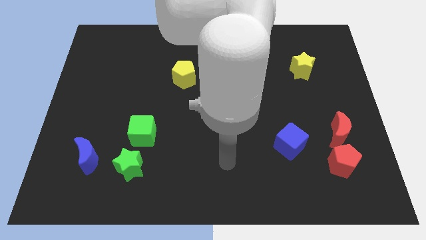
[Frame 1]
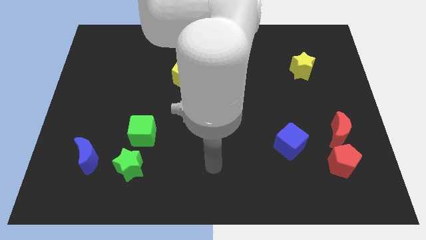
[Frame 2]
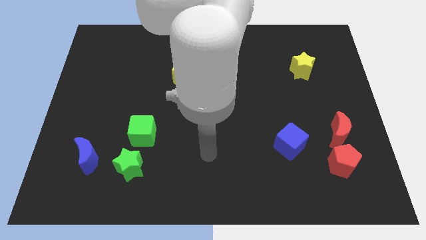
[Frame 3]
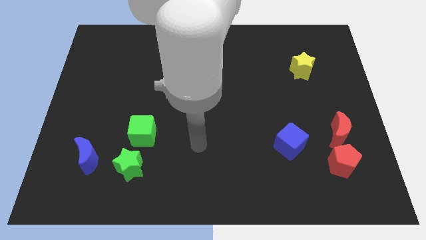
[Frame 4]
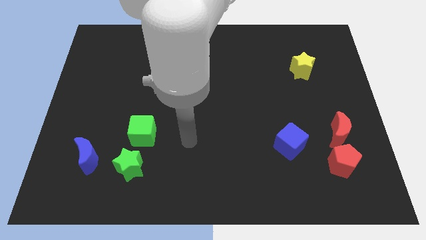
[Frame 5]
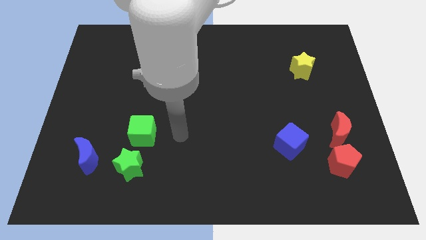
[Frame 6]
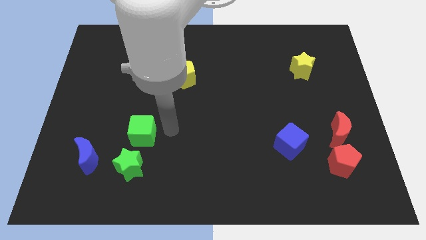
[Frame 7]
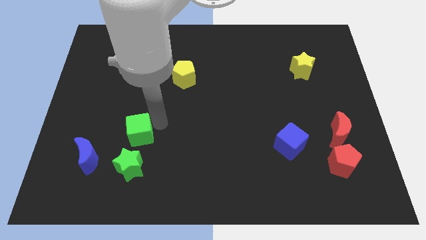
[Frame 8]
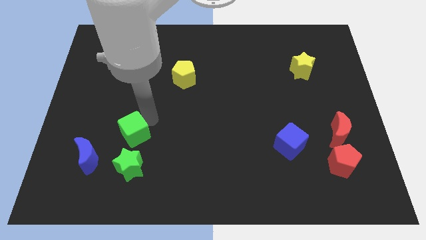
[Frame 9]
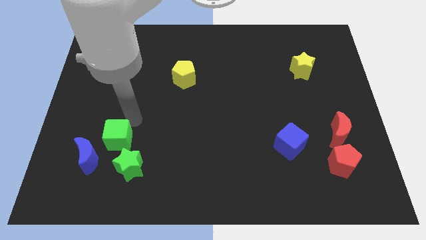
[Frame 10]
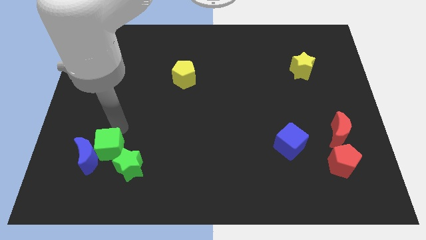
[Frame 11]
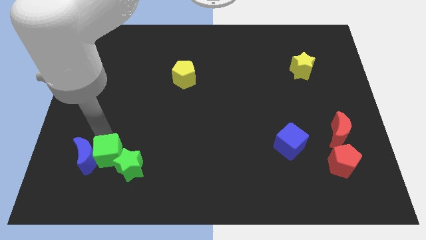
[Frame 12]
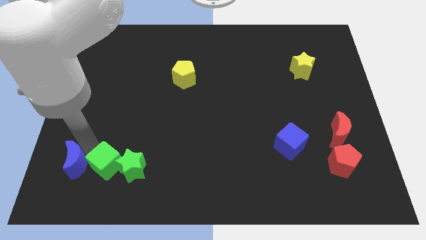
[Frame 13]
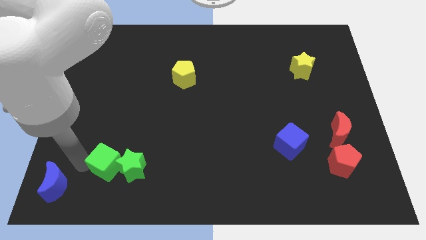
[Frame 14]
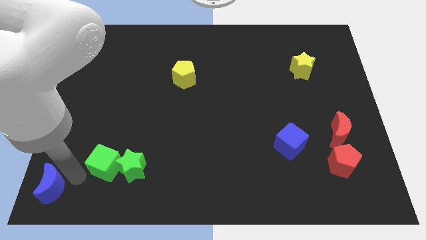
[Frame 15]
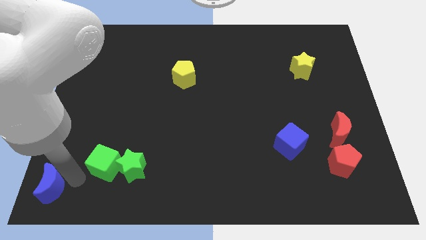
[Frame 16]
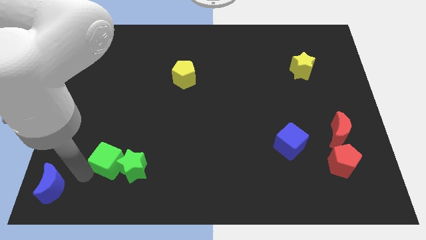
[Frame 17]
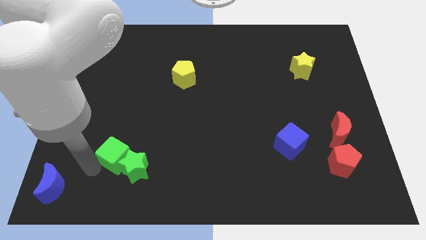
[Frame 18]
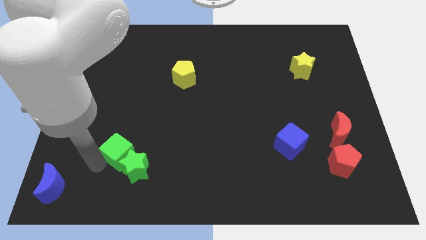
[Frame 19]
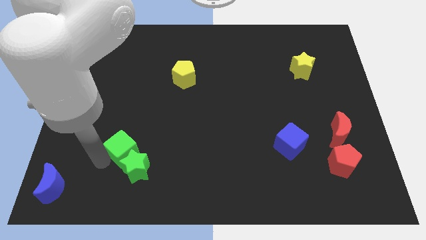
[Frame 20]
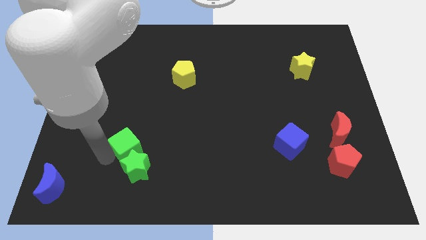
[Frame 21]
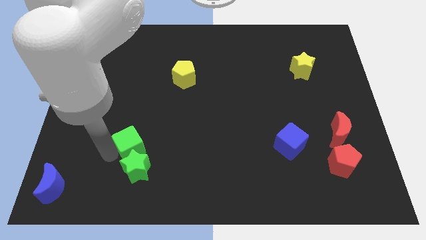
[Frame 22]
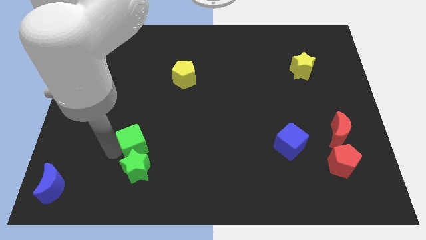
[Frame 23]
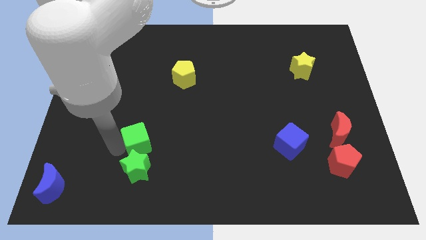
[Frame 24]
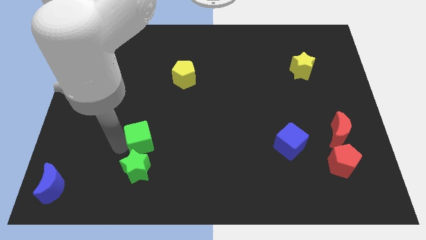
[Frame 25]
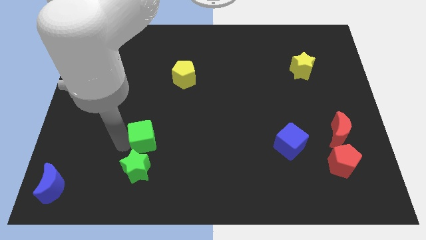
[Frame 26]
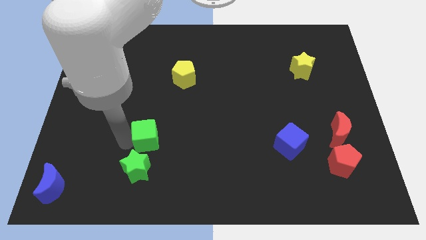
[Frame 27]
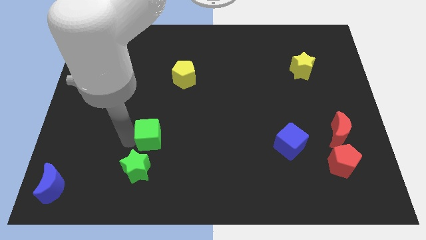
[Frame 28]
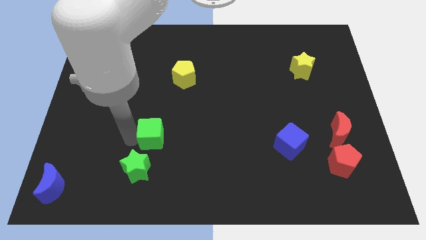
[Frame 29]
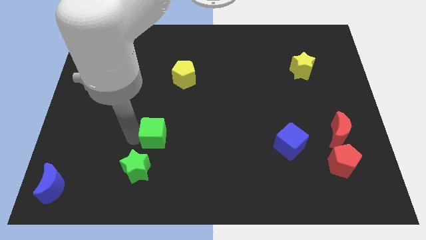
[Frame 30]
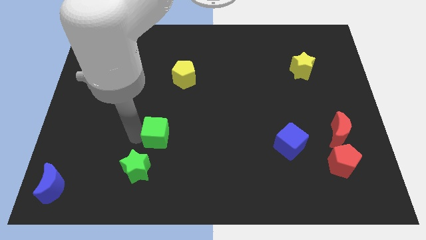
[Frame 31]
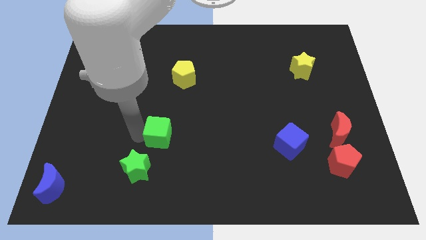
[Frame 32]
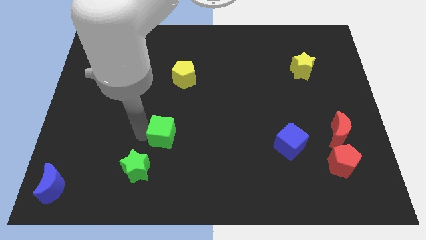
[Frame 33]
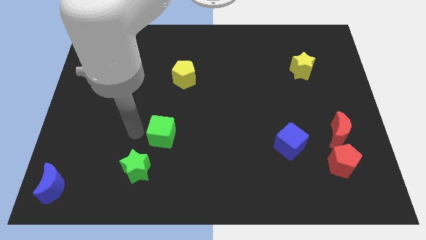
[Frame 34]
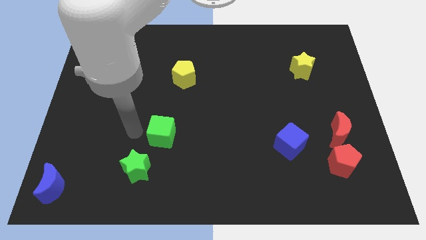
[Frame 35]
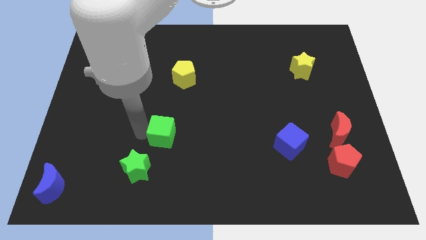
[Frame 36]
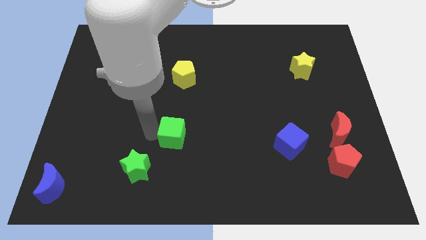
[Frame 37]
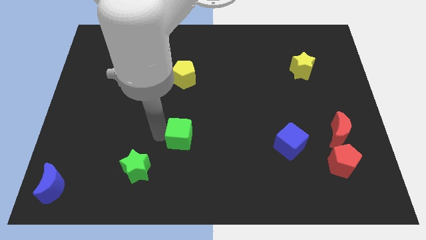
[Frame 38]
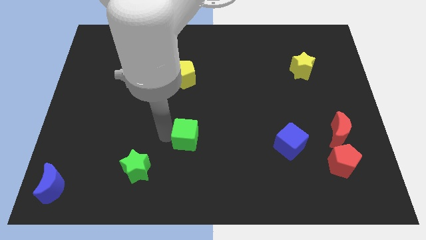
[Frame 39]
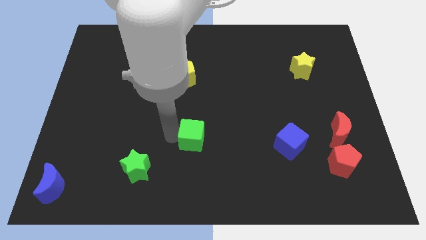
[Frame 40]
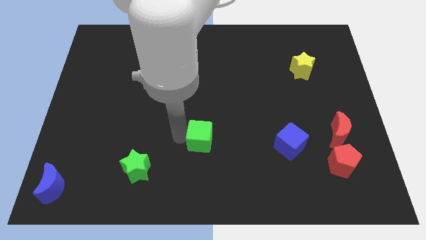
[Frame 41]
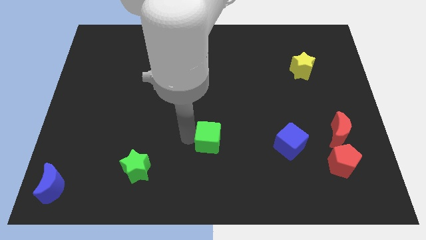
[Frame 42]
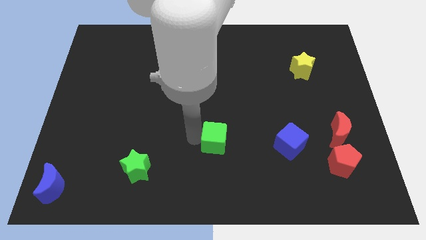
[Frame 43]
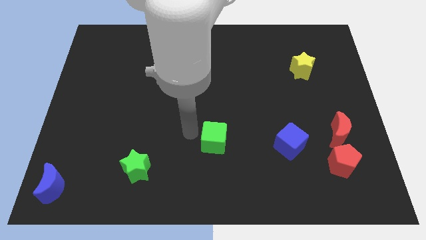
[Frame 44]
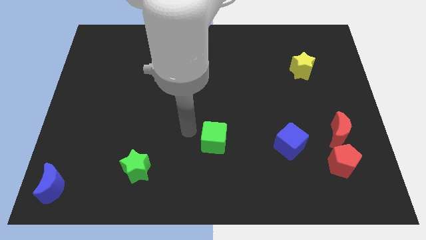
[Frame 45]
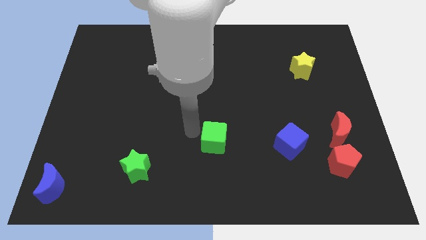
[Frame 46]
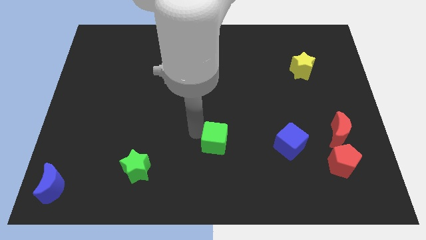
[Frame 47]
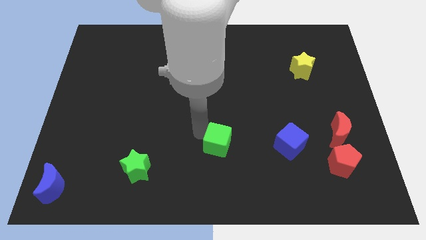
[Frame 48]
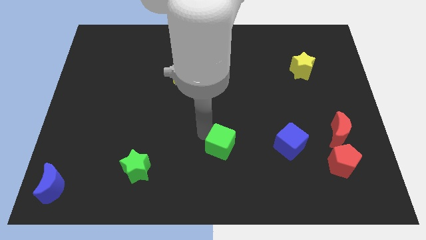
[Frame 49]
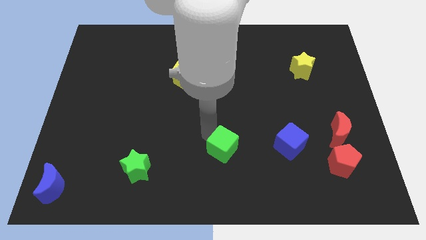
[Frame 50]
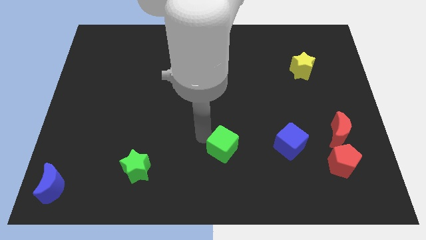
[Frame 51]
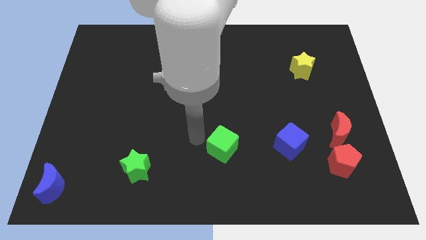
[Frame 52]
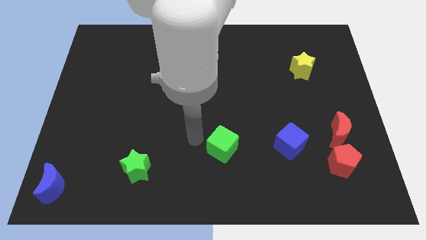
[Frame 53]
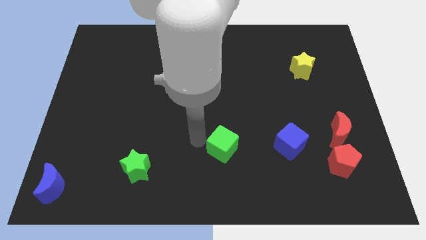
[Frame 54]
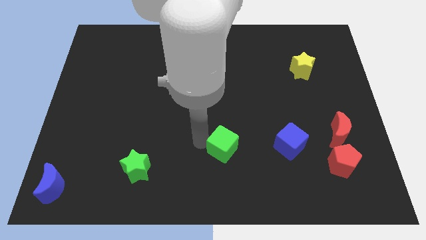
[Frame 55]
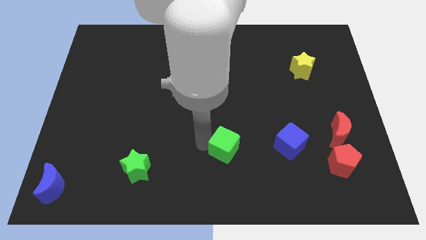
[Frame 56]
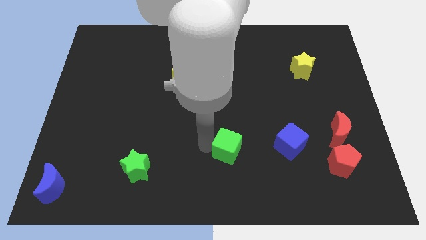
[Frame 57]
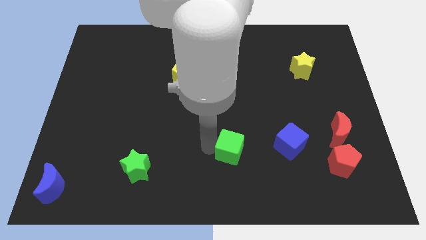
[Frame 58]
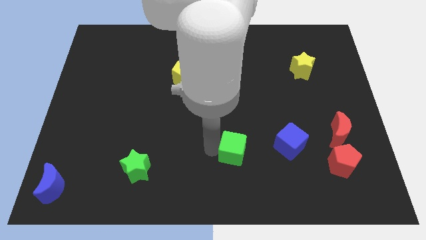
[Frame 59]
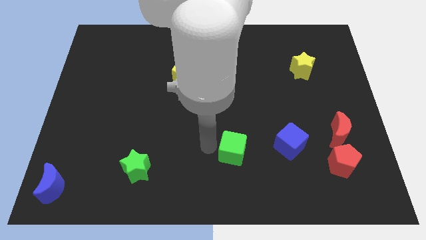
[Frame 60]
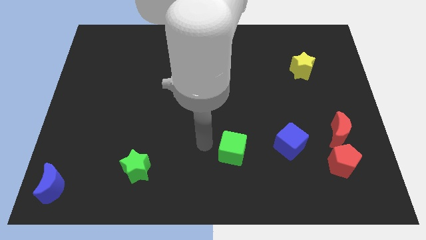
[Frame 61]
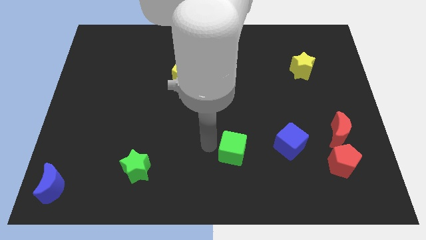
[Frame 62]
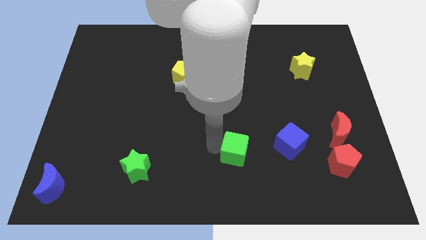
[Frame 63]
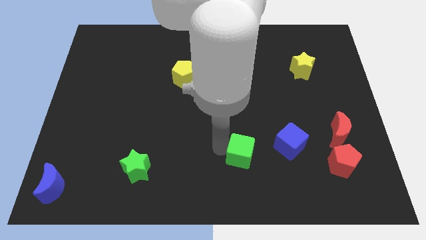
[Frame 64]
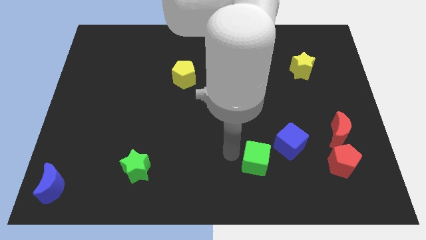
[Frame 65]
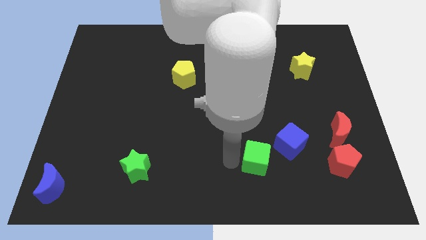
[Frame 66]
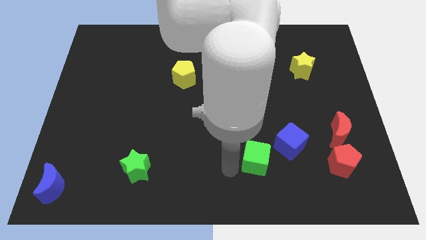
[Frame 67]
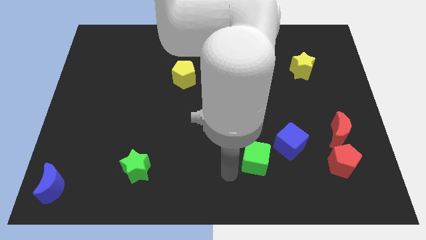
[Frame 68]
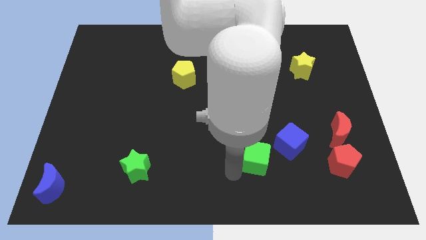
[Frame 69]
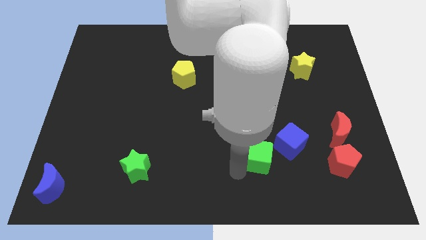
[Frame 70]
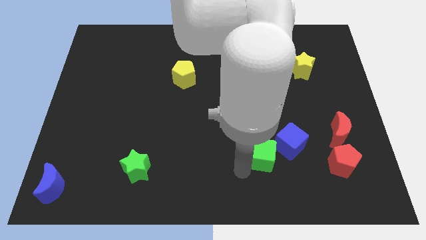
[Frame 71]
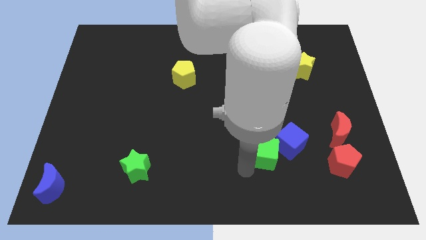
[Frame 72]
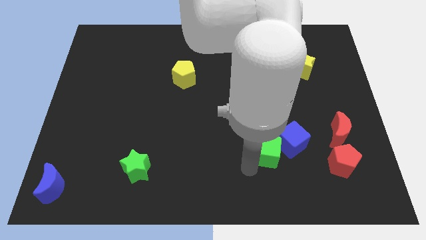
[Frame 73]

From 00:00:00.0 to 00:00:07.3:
push the green cube to the blue cube
